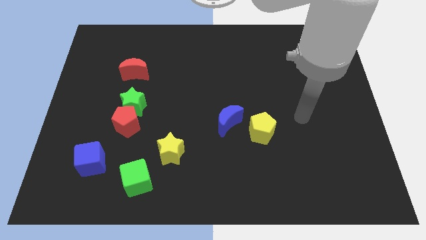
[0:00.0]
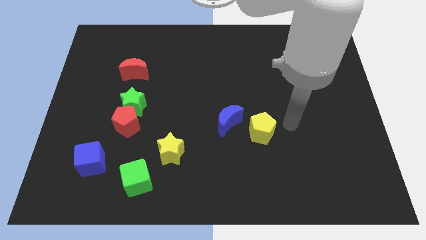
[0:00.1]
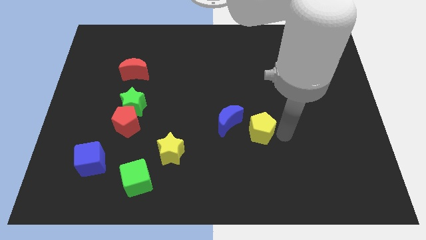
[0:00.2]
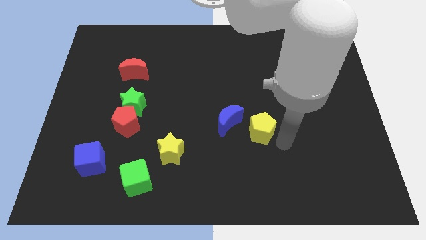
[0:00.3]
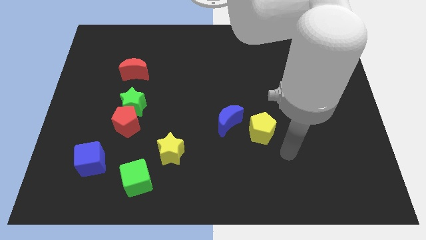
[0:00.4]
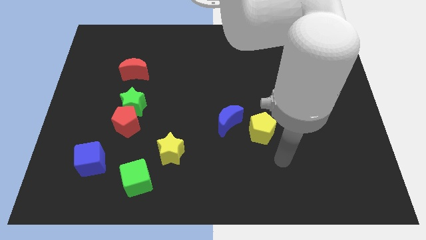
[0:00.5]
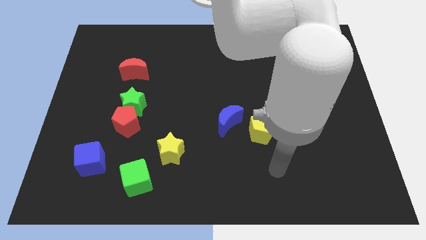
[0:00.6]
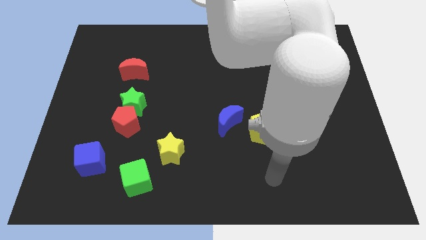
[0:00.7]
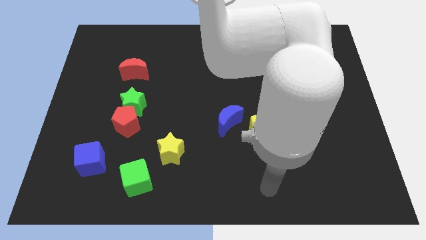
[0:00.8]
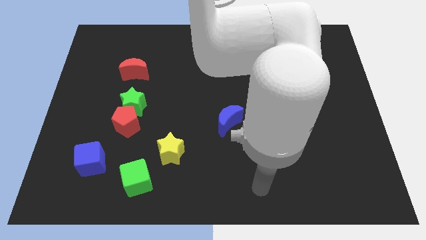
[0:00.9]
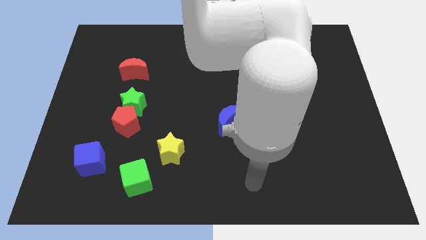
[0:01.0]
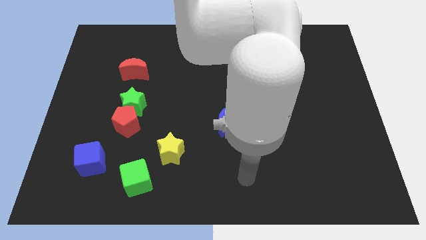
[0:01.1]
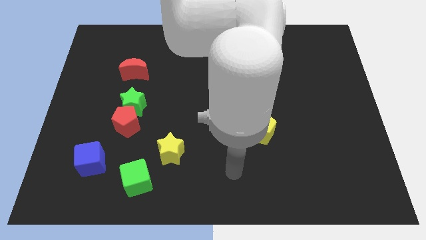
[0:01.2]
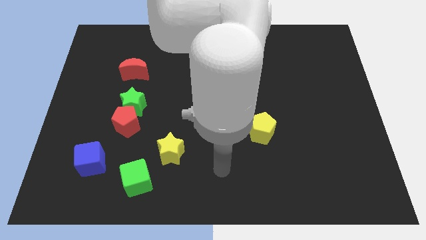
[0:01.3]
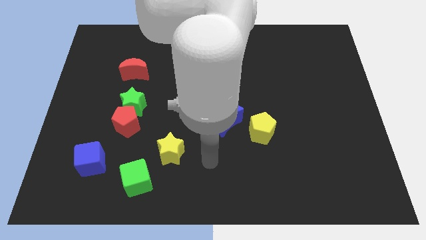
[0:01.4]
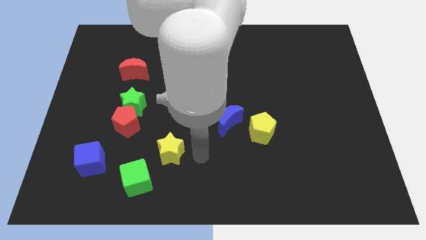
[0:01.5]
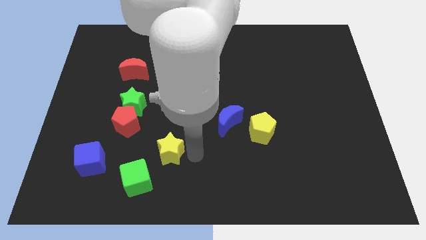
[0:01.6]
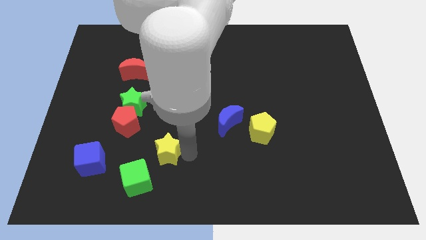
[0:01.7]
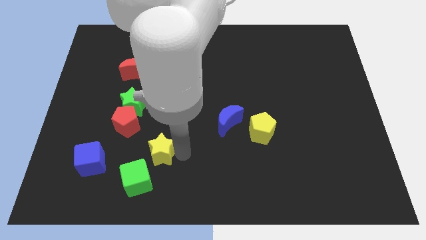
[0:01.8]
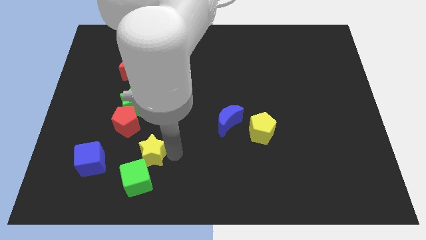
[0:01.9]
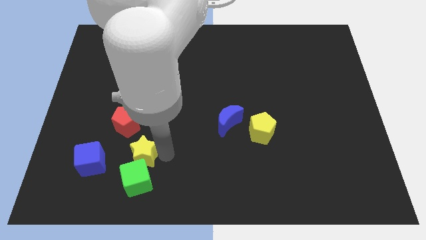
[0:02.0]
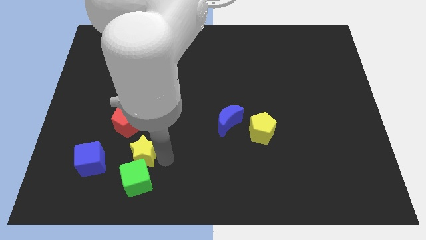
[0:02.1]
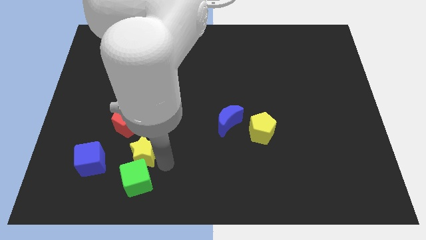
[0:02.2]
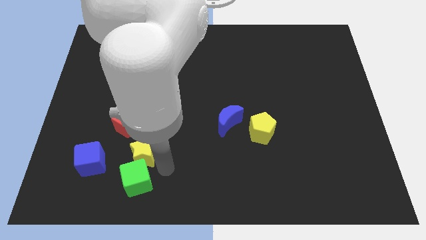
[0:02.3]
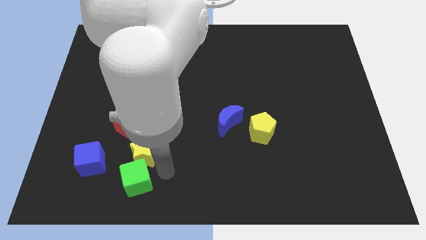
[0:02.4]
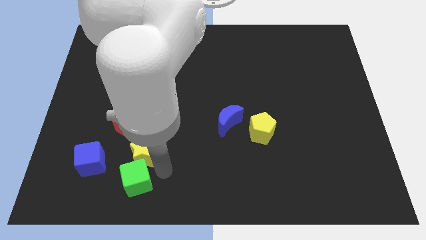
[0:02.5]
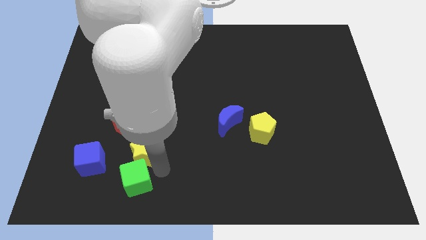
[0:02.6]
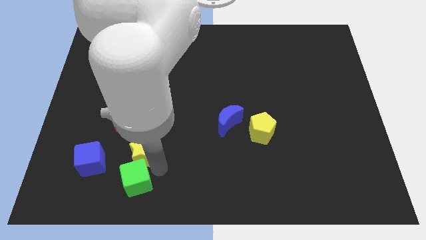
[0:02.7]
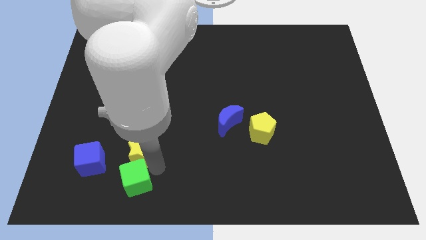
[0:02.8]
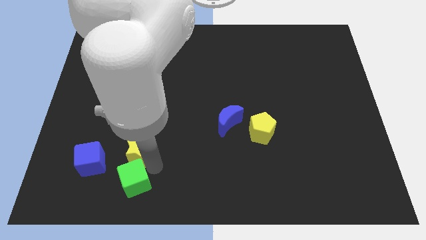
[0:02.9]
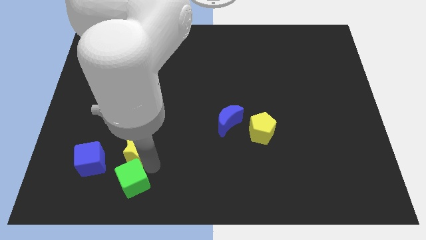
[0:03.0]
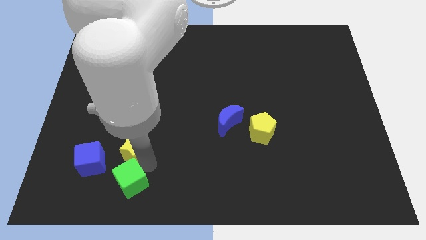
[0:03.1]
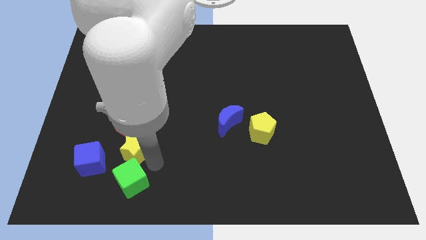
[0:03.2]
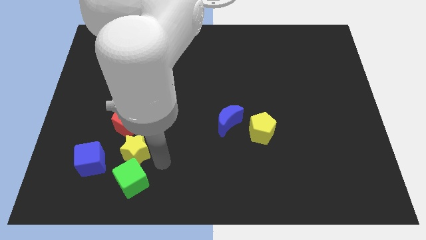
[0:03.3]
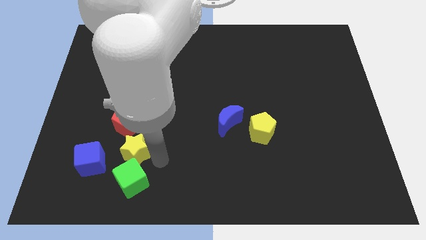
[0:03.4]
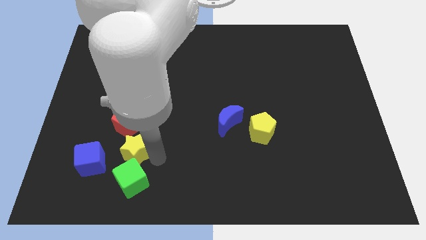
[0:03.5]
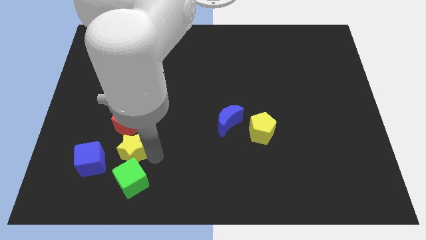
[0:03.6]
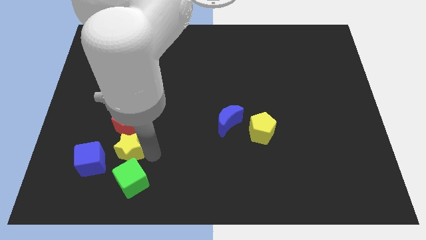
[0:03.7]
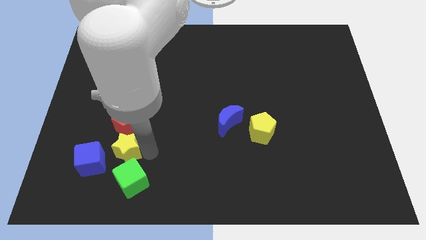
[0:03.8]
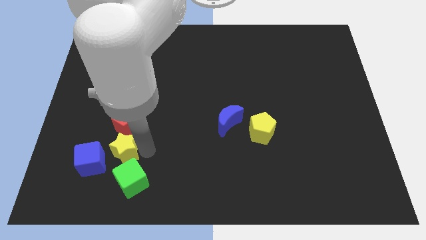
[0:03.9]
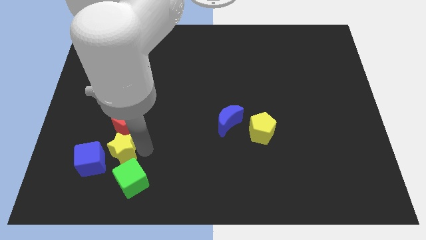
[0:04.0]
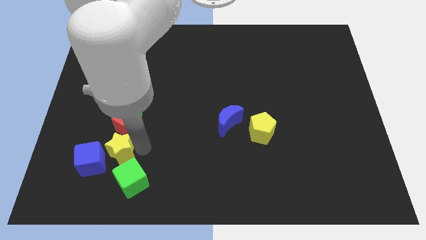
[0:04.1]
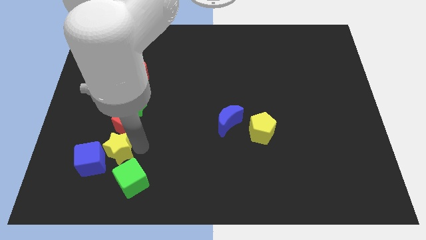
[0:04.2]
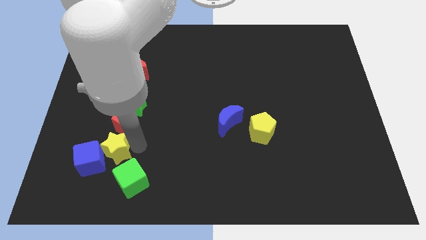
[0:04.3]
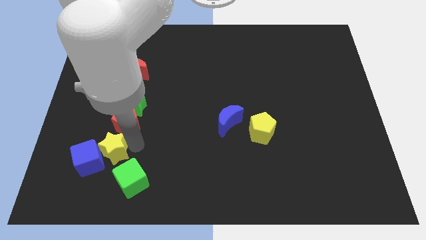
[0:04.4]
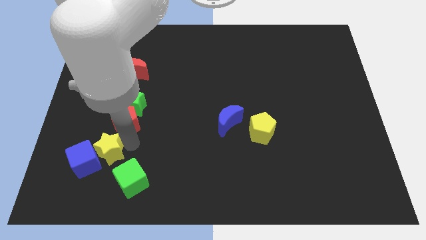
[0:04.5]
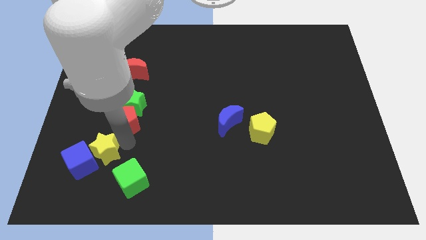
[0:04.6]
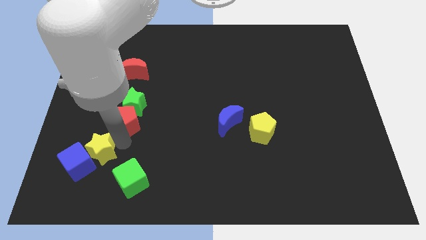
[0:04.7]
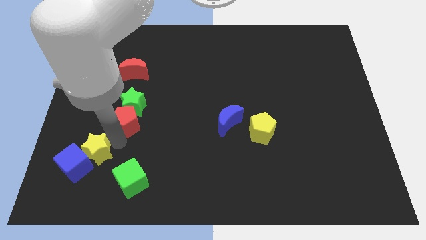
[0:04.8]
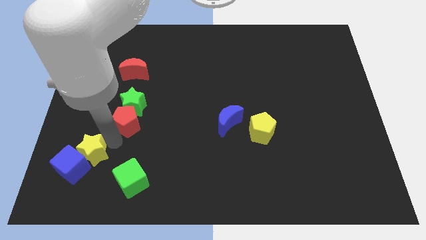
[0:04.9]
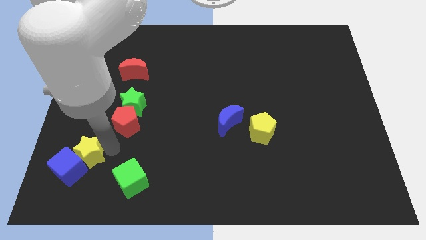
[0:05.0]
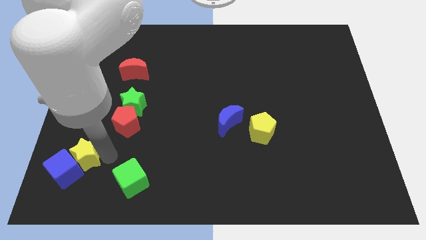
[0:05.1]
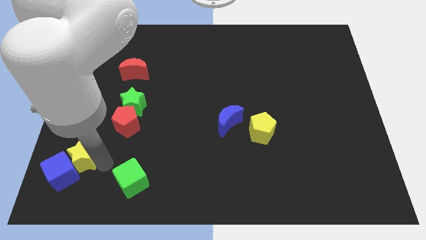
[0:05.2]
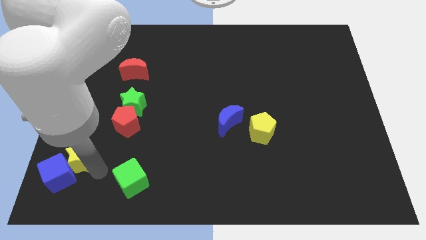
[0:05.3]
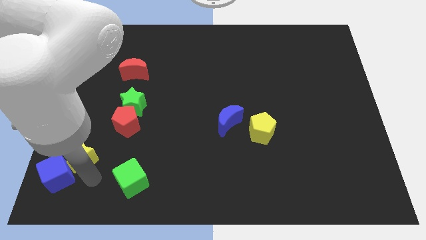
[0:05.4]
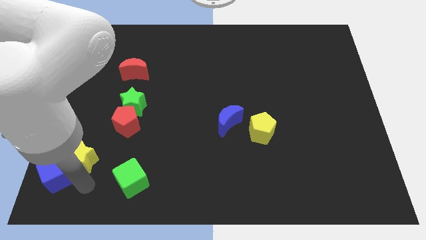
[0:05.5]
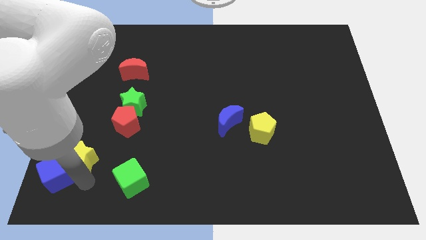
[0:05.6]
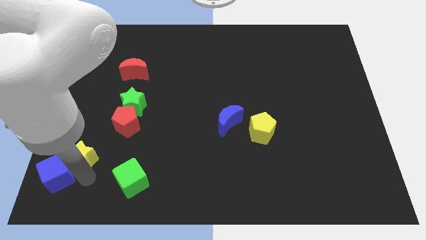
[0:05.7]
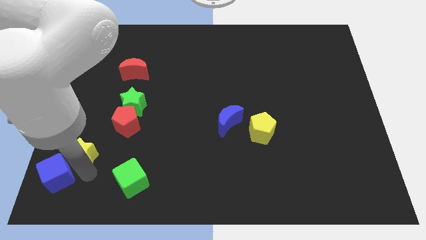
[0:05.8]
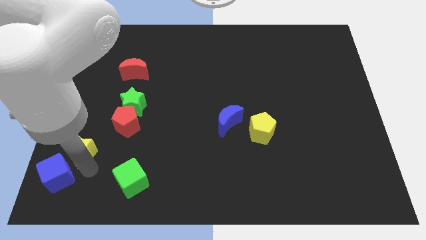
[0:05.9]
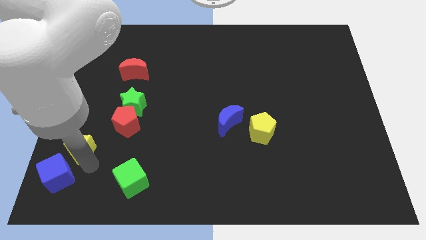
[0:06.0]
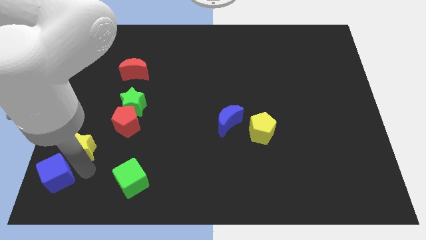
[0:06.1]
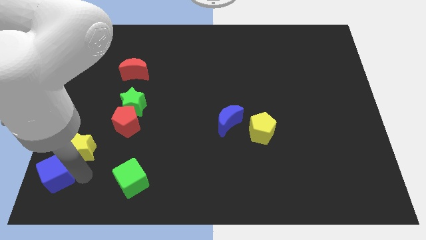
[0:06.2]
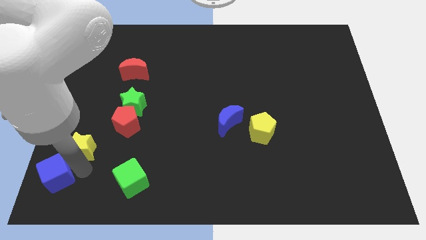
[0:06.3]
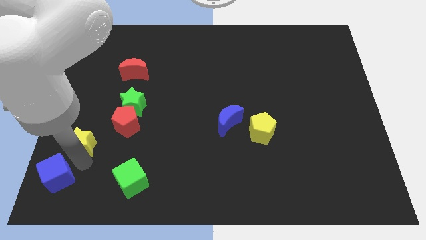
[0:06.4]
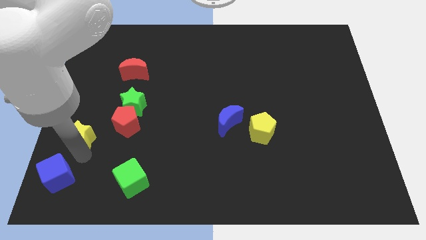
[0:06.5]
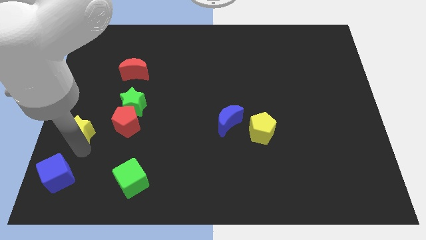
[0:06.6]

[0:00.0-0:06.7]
push the yellow star to the left side

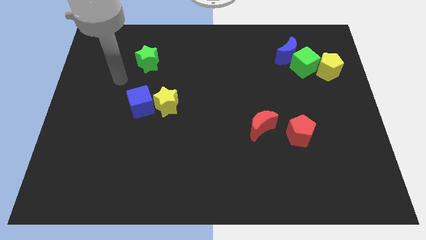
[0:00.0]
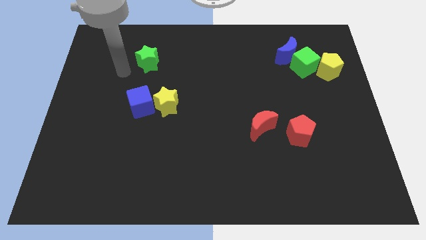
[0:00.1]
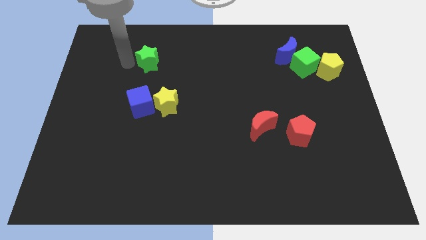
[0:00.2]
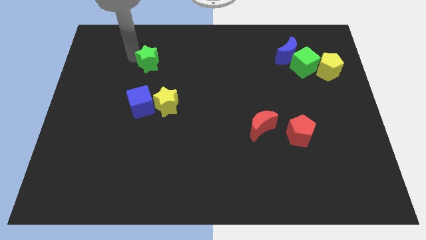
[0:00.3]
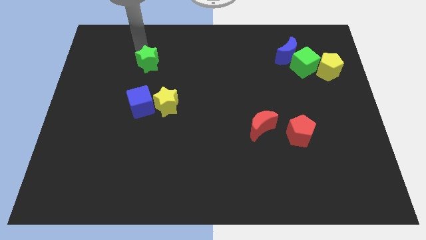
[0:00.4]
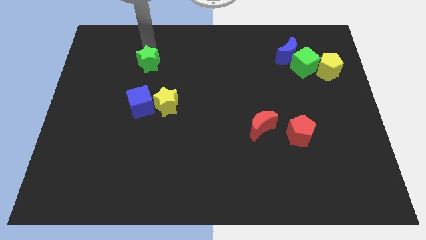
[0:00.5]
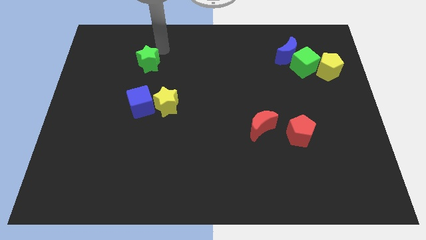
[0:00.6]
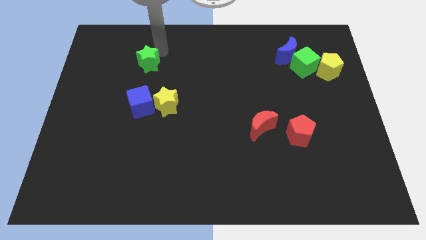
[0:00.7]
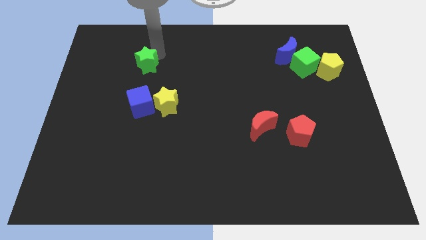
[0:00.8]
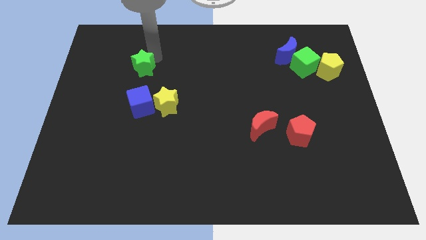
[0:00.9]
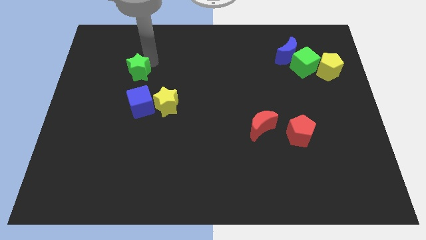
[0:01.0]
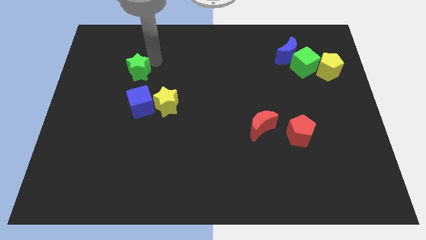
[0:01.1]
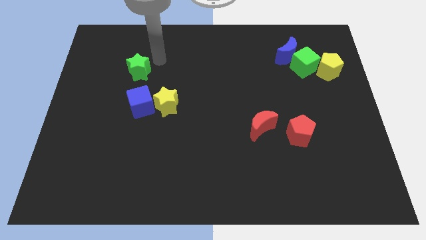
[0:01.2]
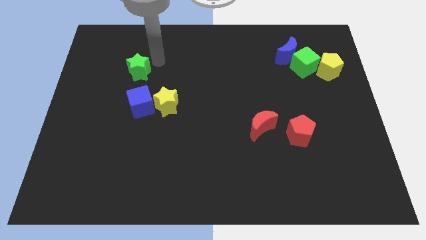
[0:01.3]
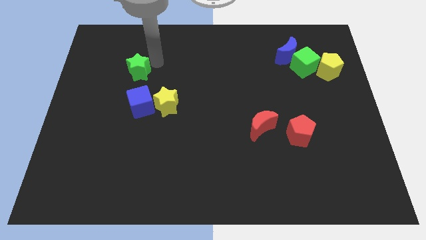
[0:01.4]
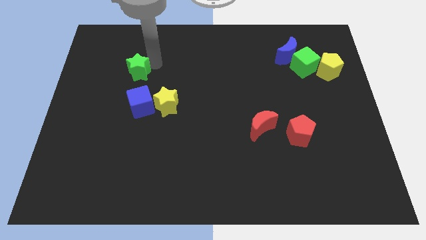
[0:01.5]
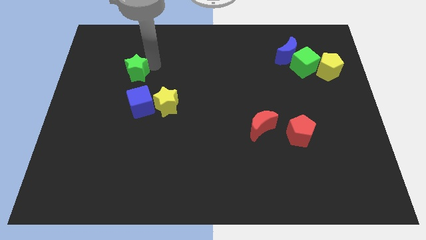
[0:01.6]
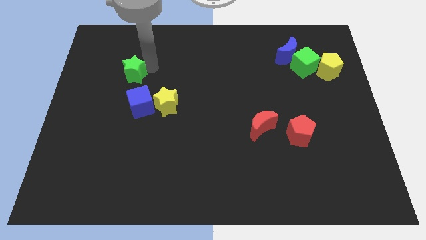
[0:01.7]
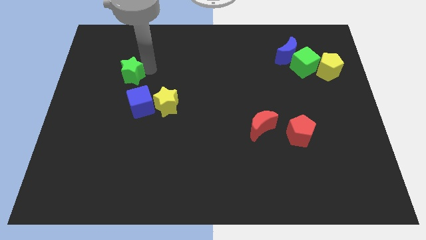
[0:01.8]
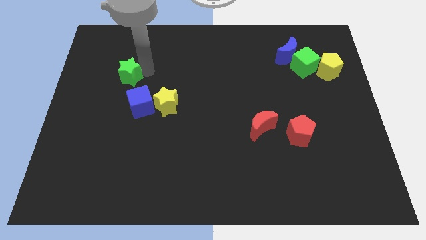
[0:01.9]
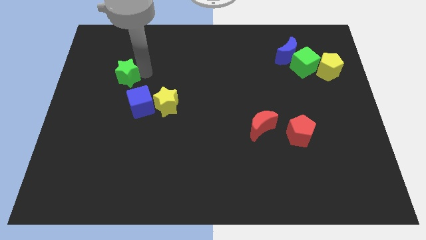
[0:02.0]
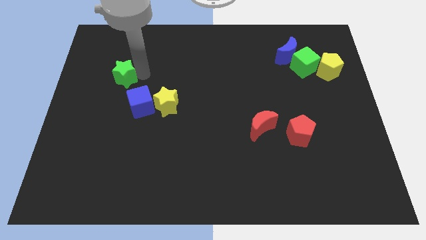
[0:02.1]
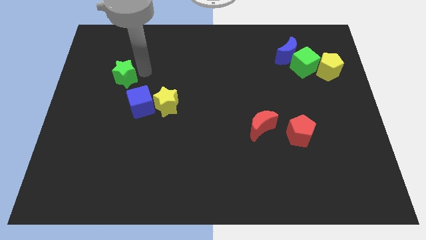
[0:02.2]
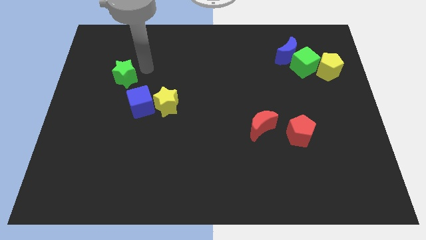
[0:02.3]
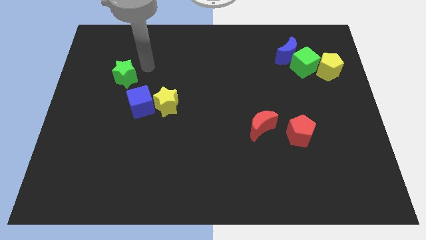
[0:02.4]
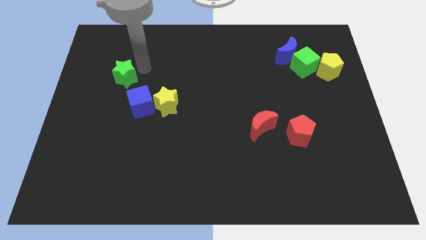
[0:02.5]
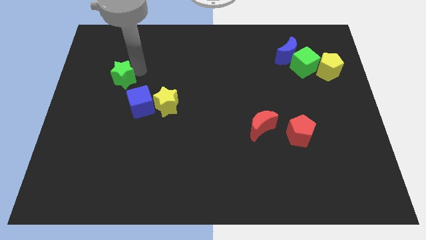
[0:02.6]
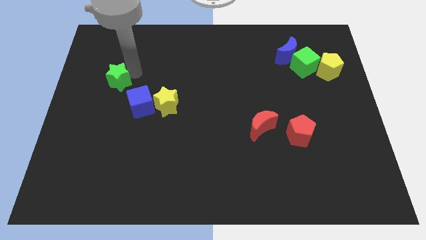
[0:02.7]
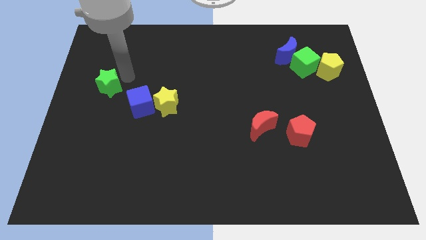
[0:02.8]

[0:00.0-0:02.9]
move the green star to the left side of the board
